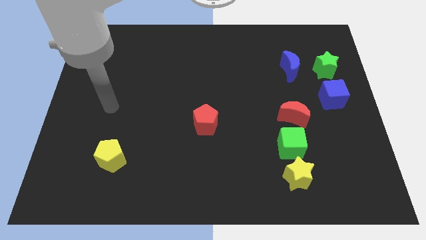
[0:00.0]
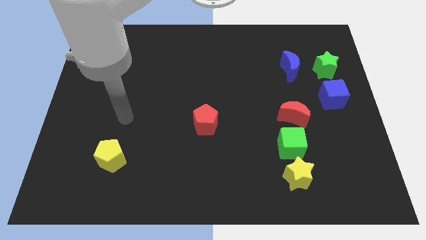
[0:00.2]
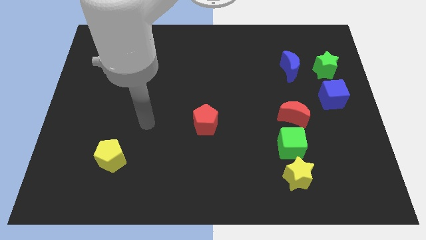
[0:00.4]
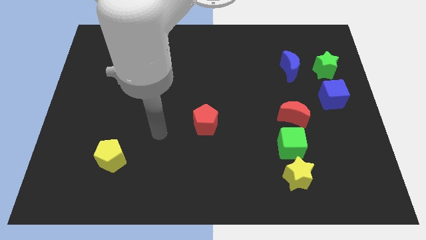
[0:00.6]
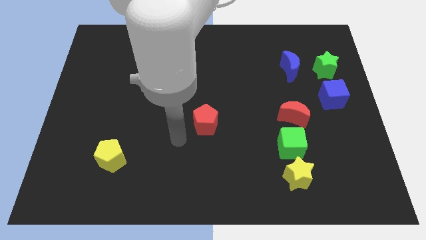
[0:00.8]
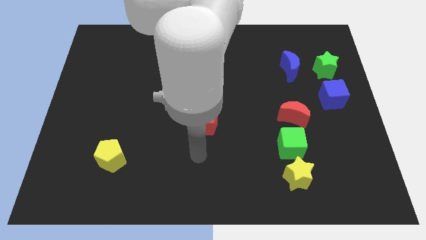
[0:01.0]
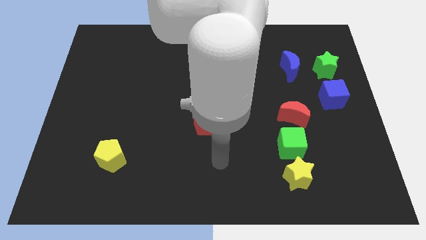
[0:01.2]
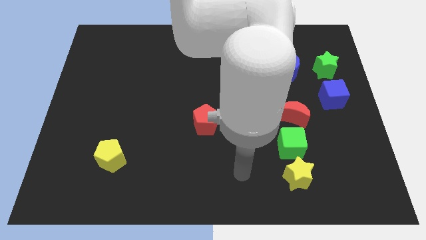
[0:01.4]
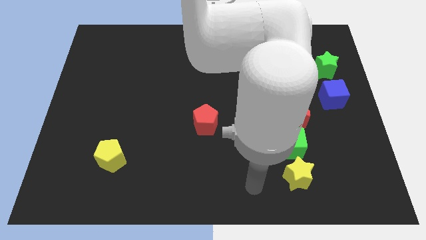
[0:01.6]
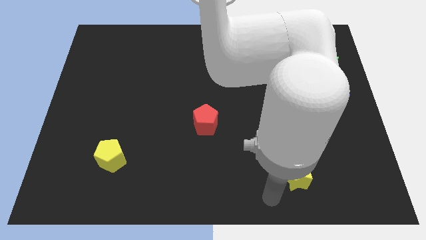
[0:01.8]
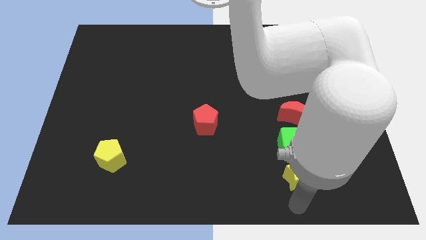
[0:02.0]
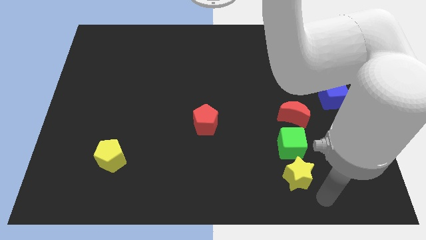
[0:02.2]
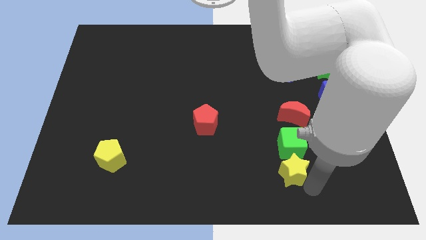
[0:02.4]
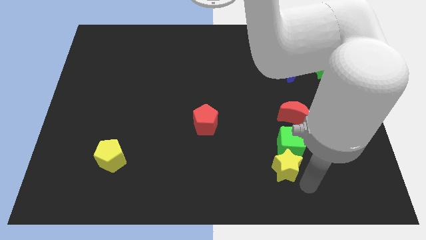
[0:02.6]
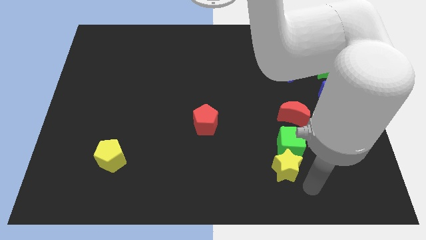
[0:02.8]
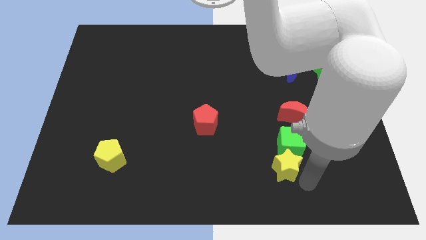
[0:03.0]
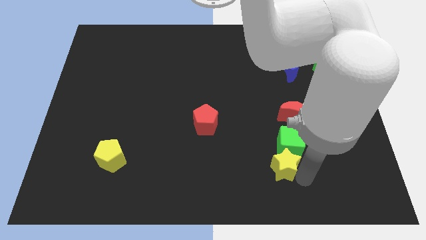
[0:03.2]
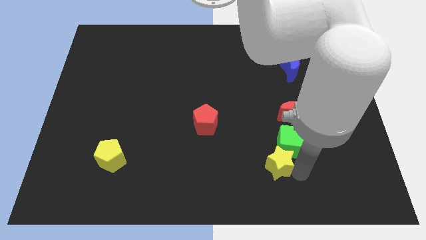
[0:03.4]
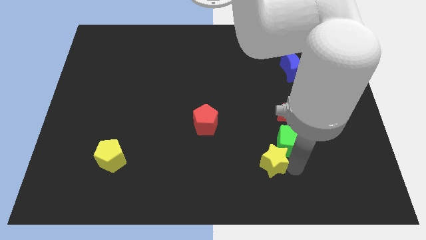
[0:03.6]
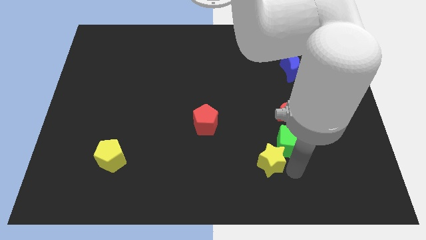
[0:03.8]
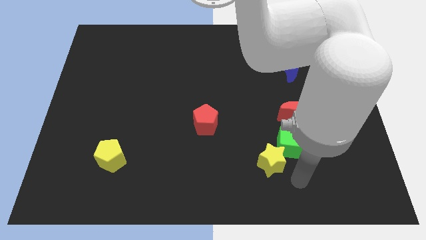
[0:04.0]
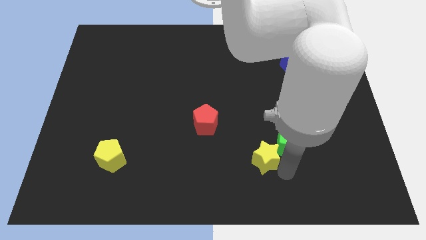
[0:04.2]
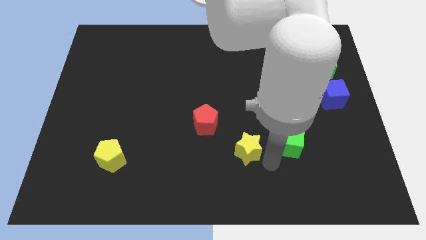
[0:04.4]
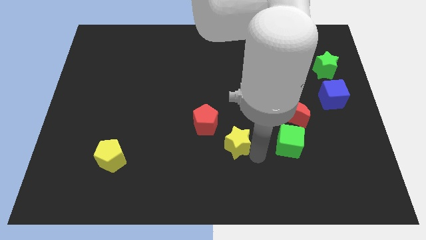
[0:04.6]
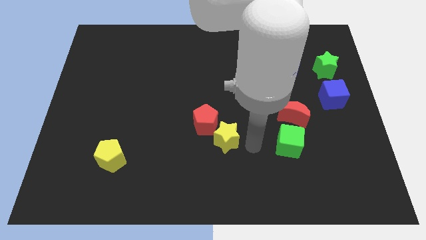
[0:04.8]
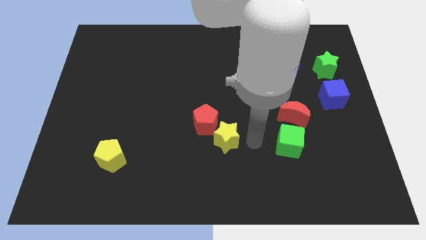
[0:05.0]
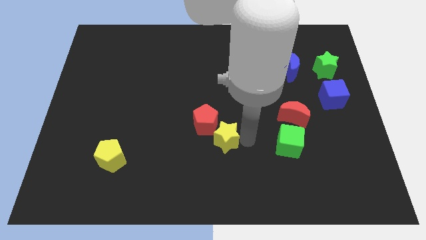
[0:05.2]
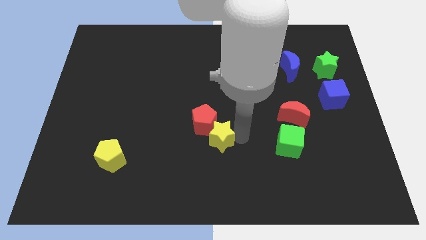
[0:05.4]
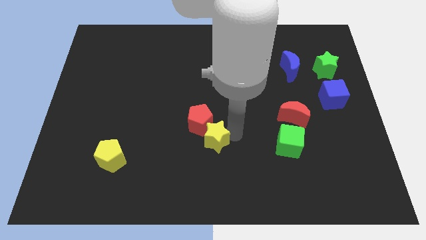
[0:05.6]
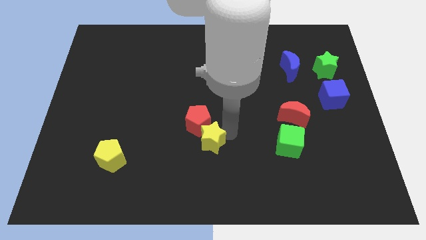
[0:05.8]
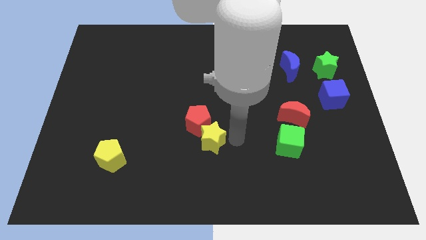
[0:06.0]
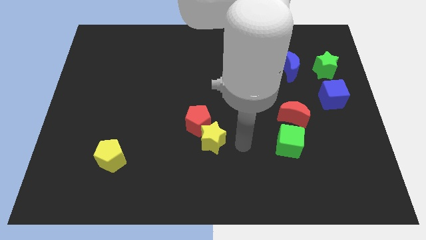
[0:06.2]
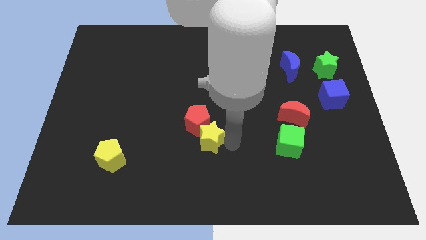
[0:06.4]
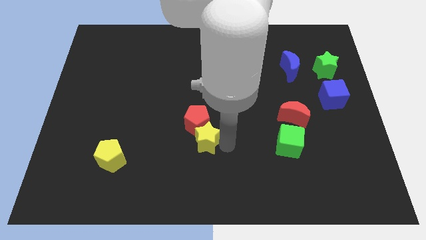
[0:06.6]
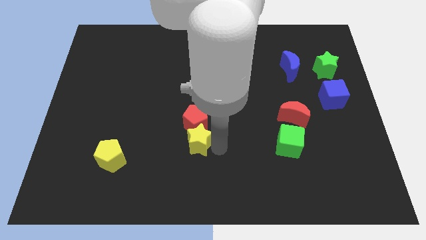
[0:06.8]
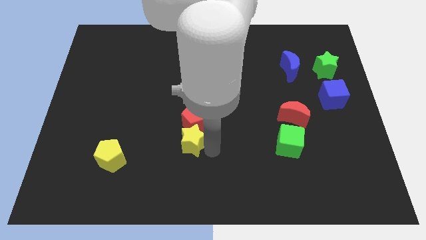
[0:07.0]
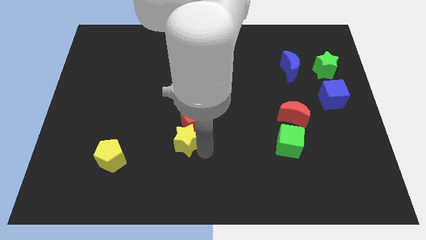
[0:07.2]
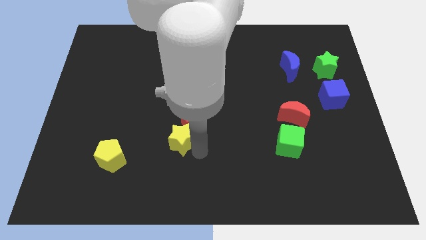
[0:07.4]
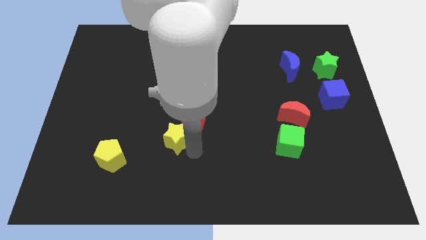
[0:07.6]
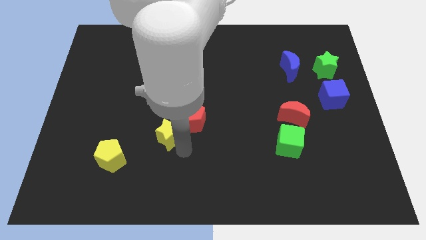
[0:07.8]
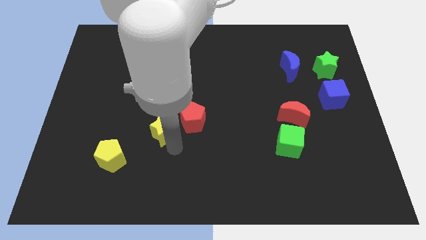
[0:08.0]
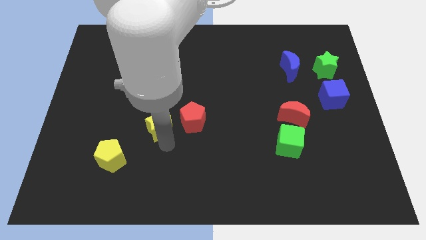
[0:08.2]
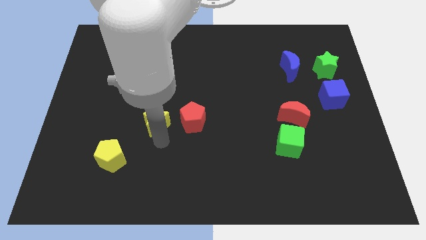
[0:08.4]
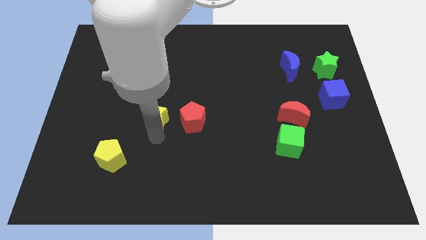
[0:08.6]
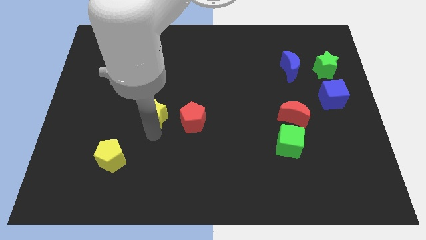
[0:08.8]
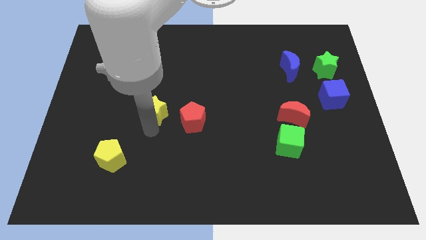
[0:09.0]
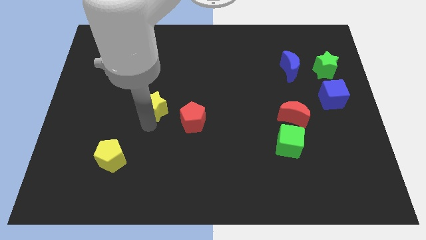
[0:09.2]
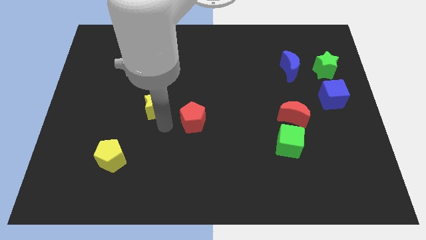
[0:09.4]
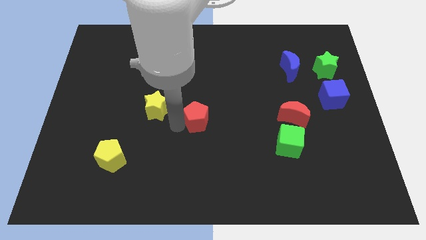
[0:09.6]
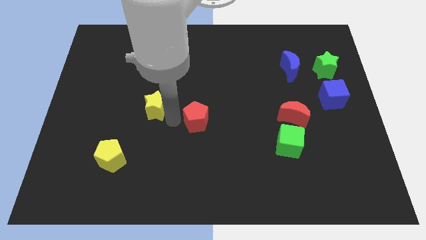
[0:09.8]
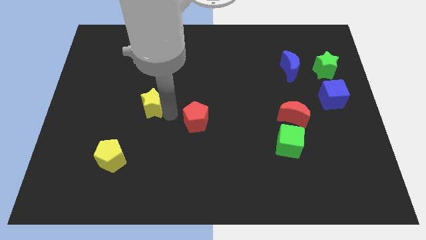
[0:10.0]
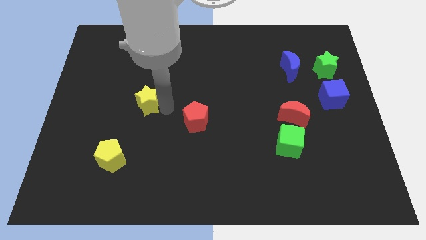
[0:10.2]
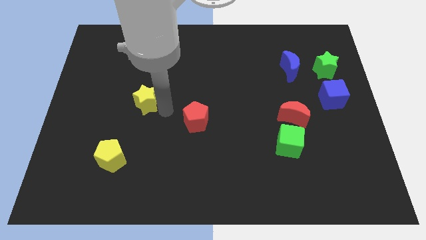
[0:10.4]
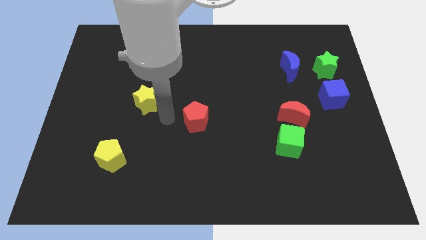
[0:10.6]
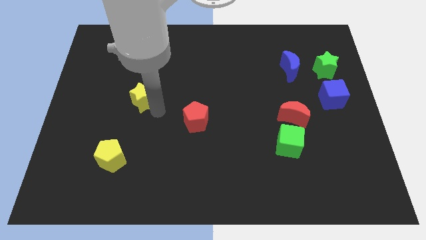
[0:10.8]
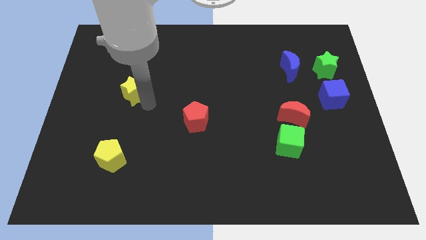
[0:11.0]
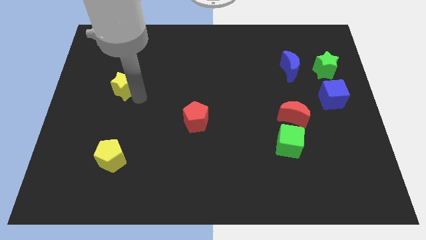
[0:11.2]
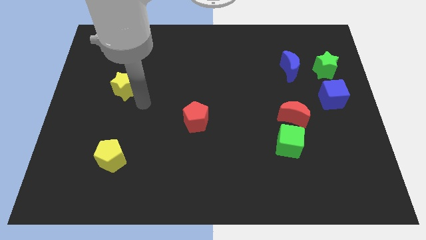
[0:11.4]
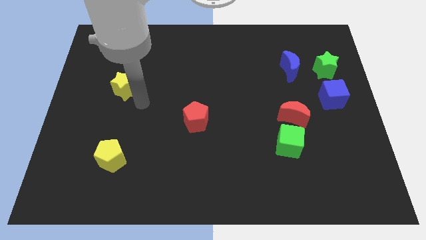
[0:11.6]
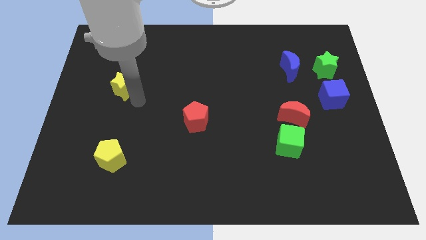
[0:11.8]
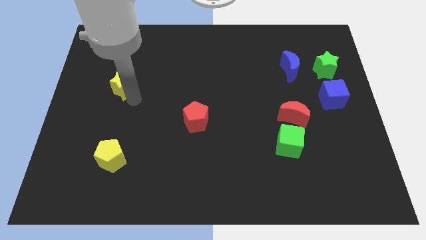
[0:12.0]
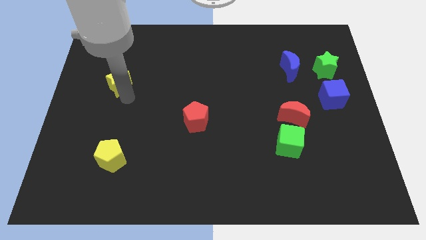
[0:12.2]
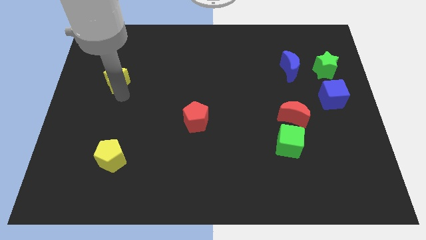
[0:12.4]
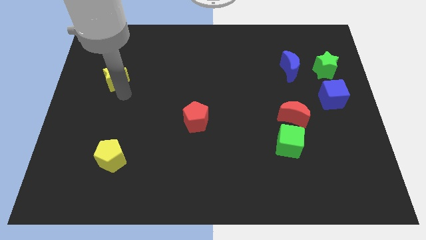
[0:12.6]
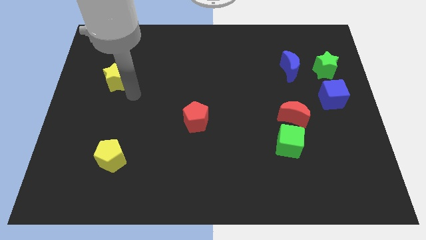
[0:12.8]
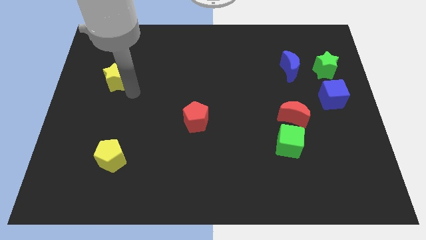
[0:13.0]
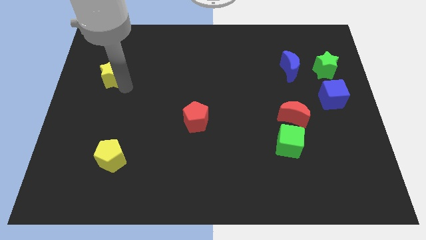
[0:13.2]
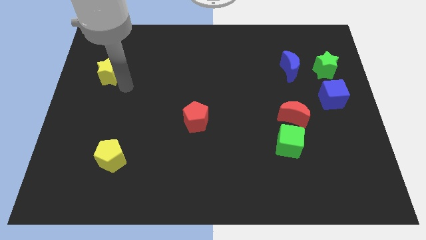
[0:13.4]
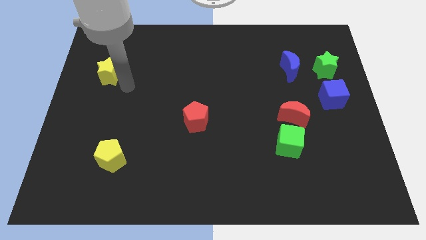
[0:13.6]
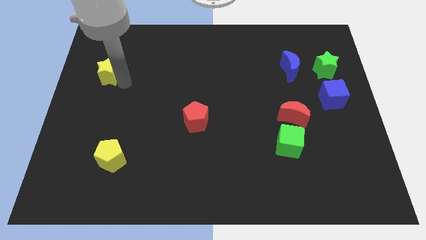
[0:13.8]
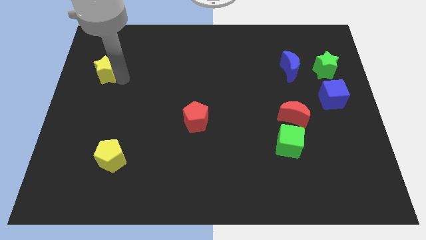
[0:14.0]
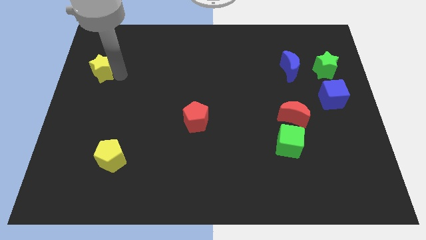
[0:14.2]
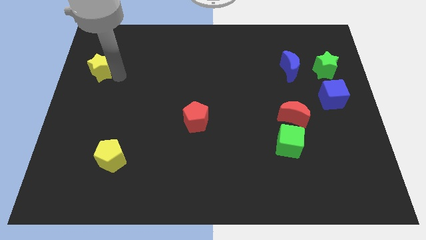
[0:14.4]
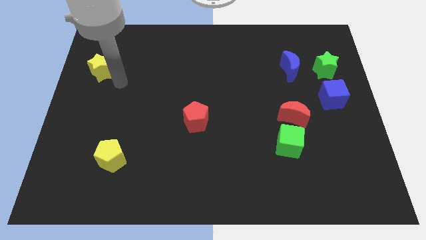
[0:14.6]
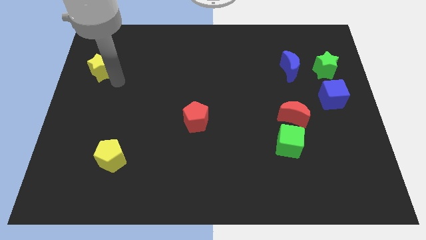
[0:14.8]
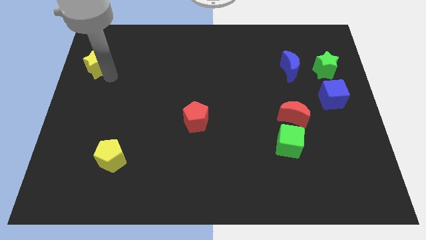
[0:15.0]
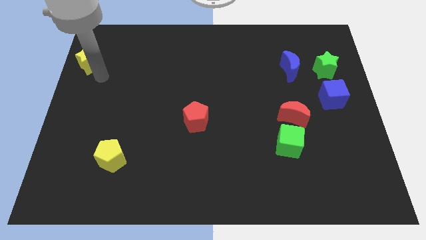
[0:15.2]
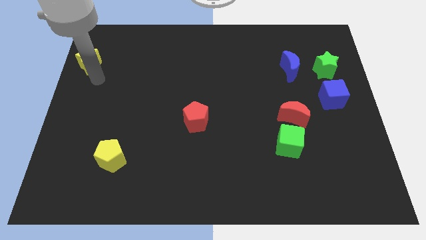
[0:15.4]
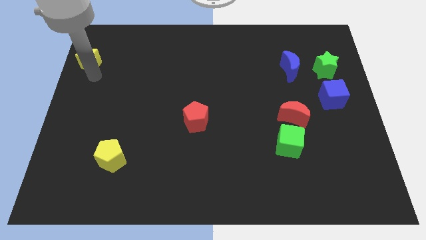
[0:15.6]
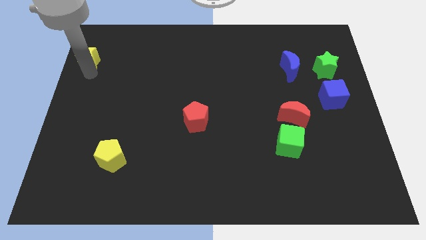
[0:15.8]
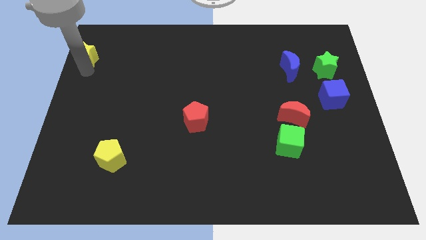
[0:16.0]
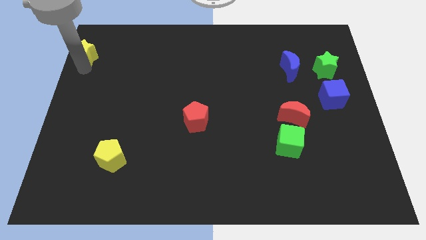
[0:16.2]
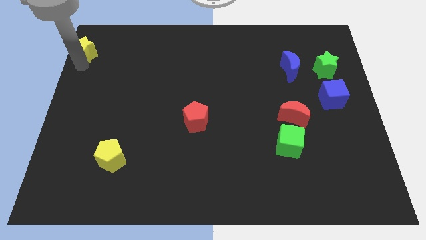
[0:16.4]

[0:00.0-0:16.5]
put the yellow star to the top left of the board
